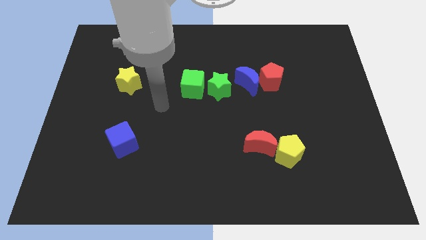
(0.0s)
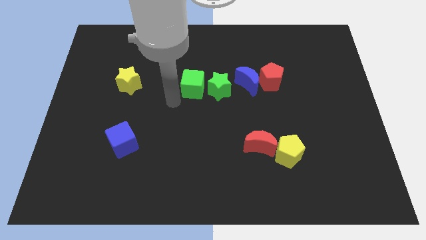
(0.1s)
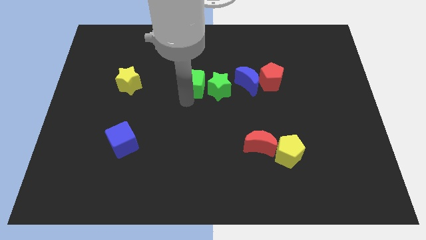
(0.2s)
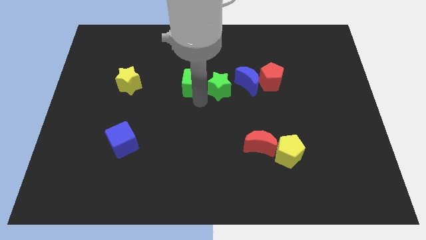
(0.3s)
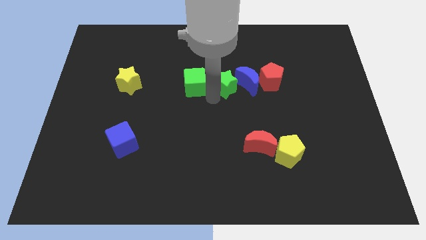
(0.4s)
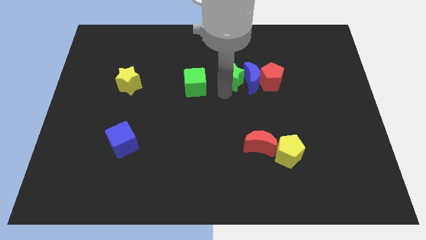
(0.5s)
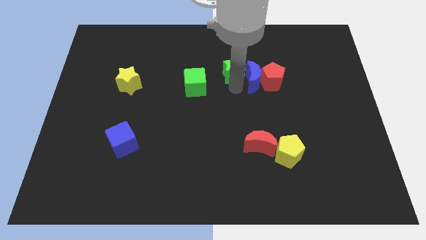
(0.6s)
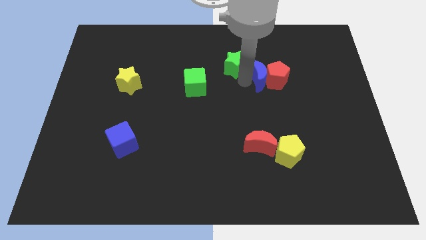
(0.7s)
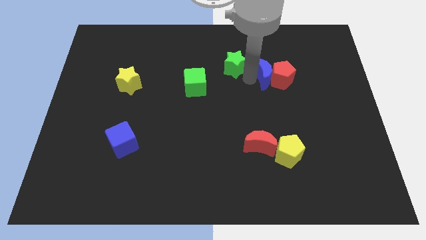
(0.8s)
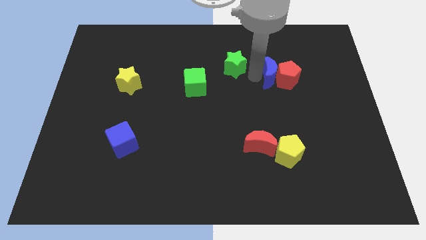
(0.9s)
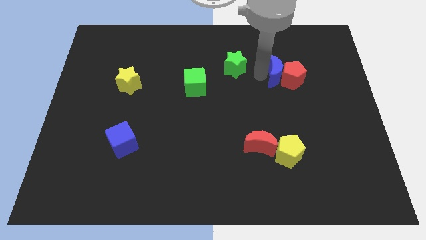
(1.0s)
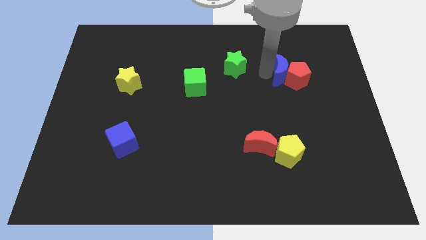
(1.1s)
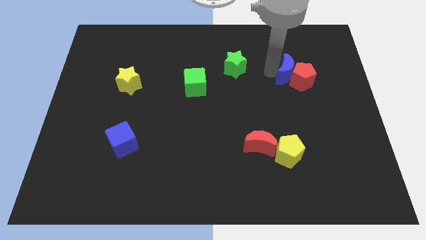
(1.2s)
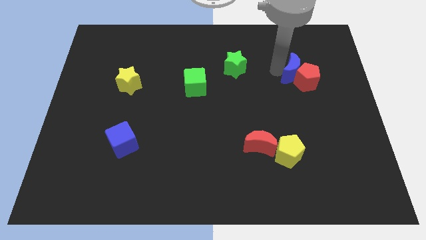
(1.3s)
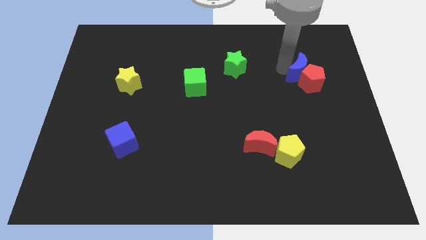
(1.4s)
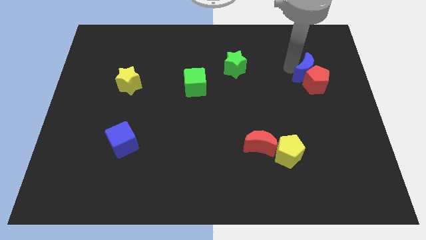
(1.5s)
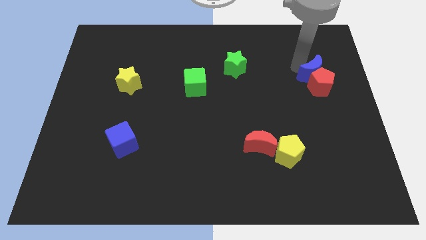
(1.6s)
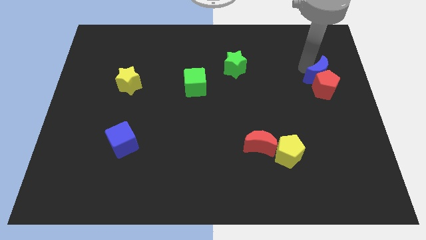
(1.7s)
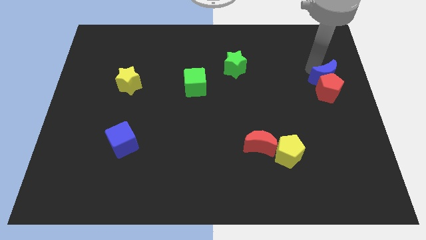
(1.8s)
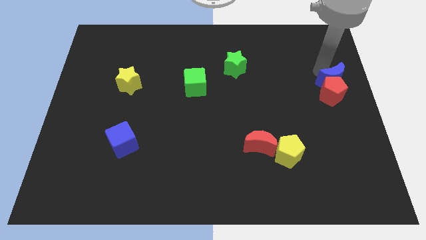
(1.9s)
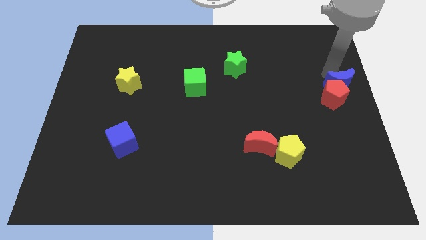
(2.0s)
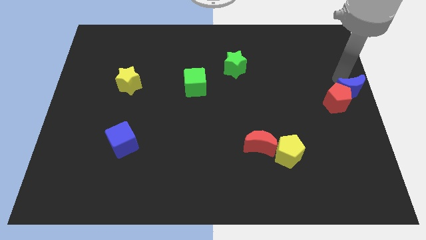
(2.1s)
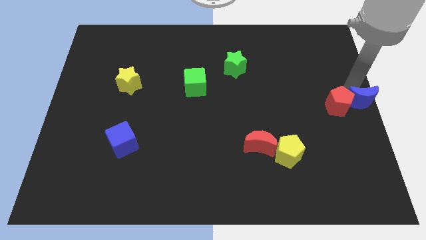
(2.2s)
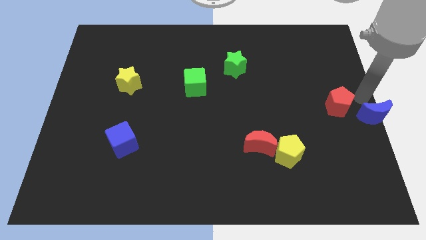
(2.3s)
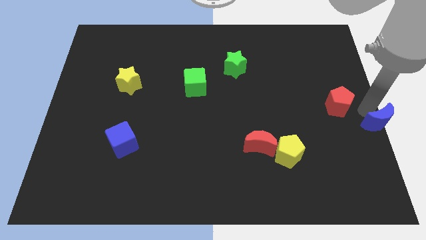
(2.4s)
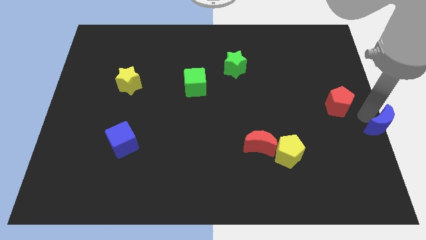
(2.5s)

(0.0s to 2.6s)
separate the red pentagon from the blue moon

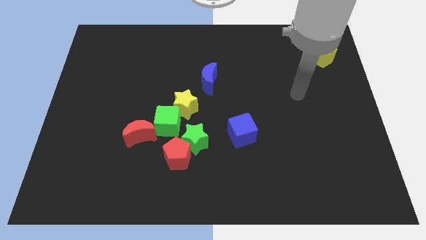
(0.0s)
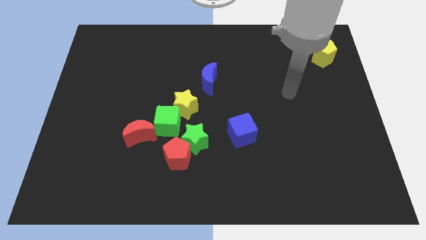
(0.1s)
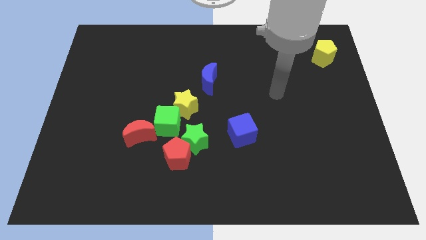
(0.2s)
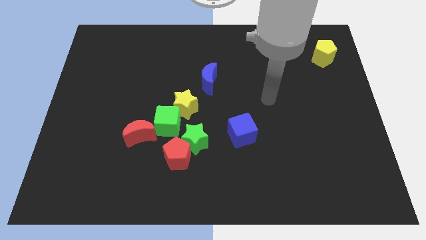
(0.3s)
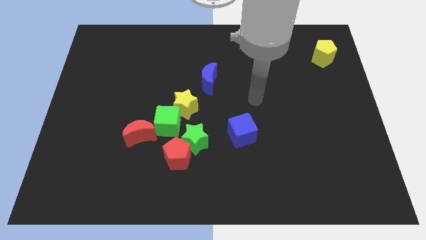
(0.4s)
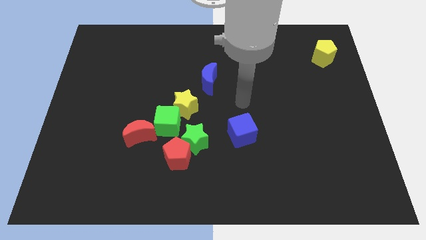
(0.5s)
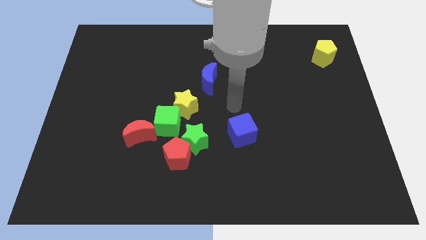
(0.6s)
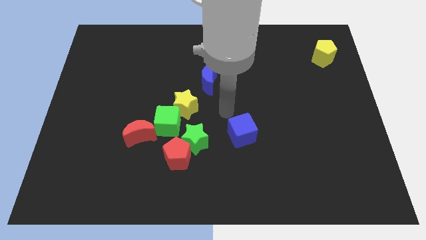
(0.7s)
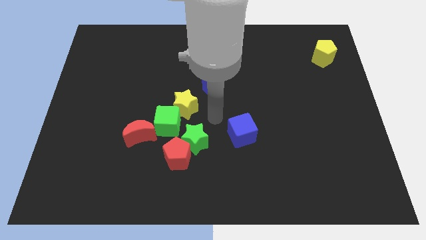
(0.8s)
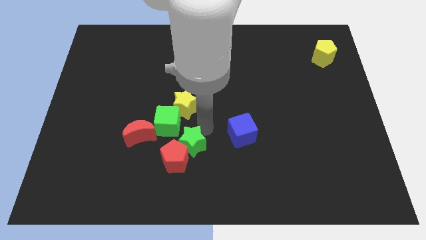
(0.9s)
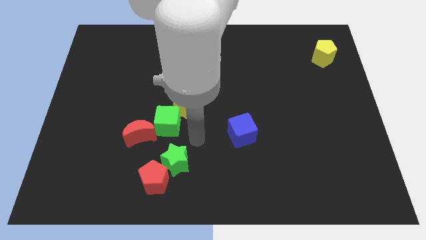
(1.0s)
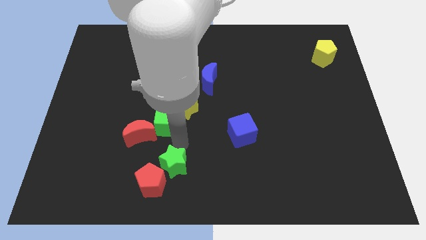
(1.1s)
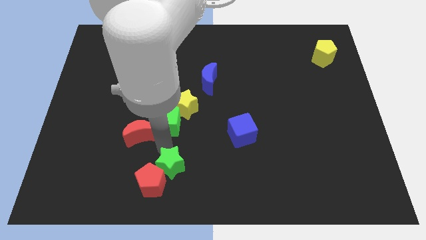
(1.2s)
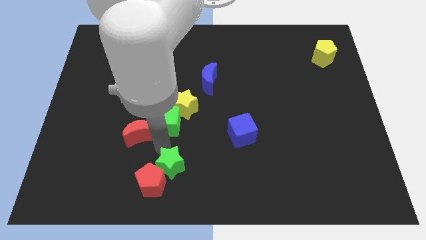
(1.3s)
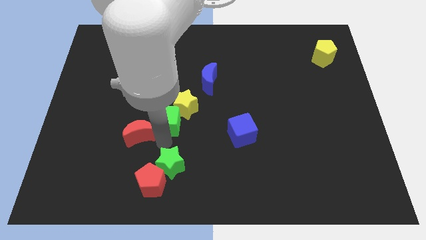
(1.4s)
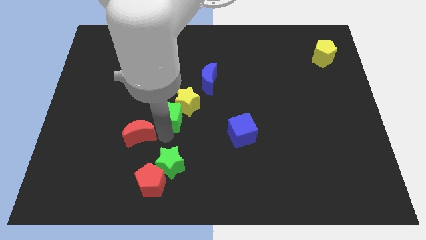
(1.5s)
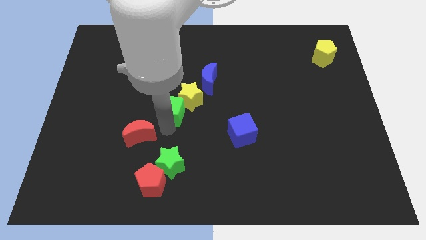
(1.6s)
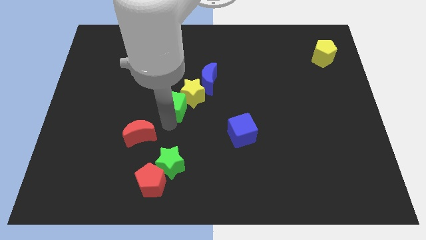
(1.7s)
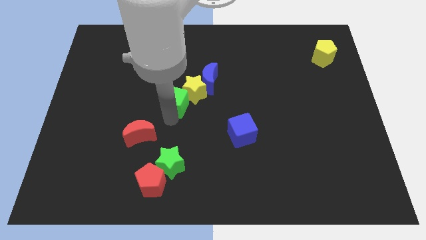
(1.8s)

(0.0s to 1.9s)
move the green cube away from the group of blocks

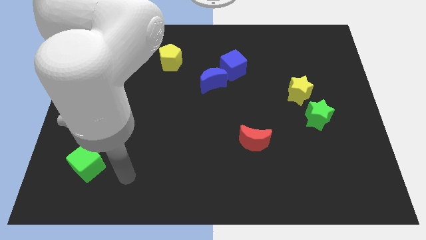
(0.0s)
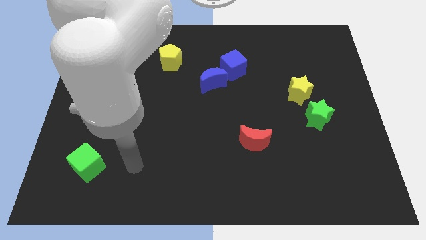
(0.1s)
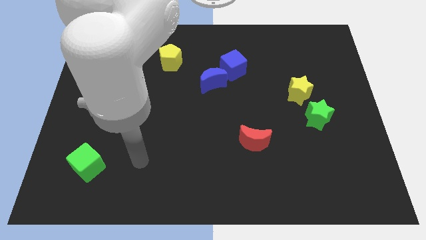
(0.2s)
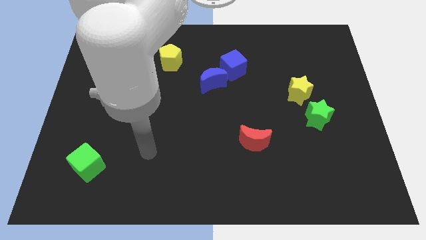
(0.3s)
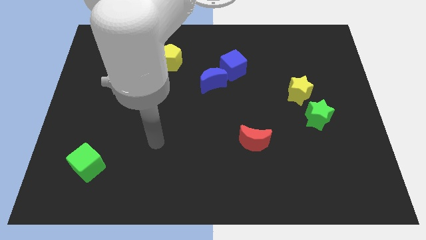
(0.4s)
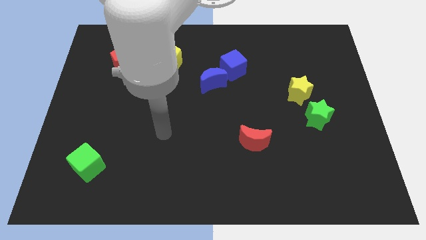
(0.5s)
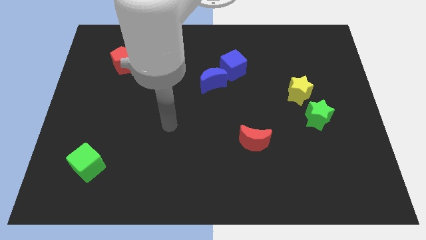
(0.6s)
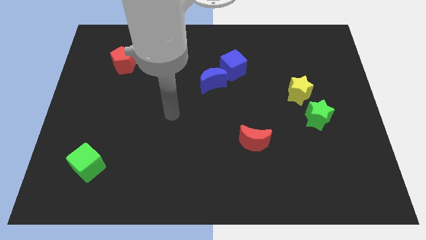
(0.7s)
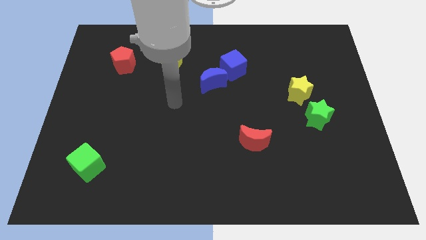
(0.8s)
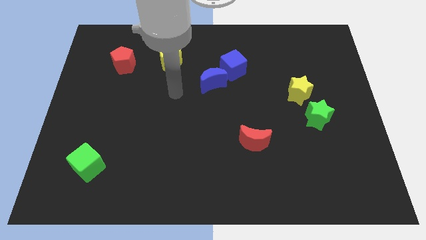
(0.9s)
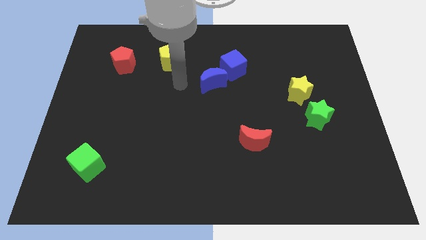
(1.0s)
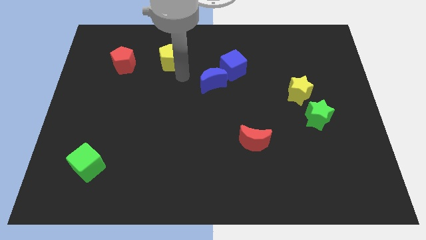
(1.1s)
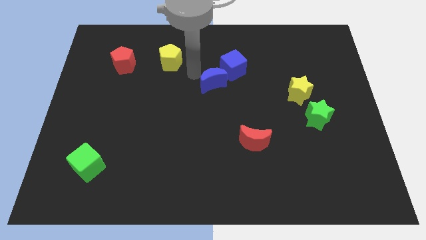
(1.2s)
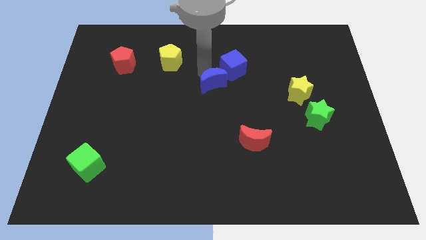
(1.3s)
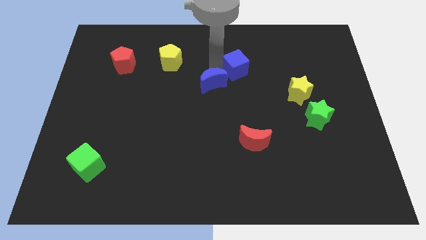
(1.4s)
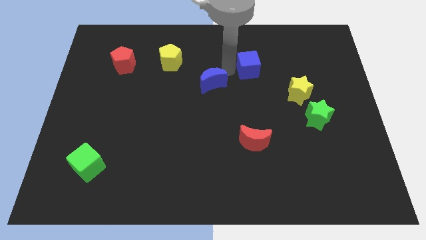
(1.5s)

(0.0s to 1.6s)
move the blue moon away from the blue cube

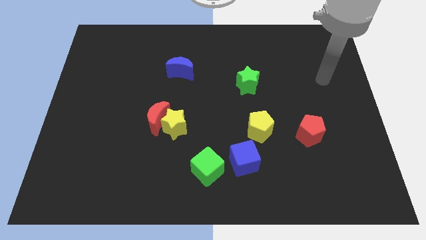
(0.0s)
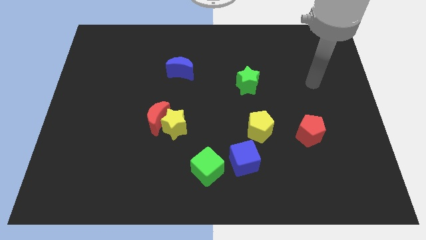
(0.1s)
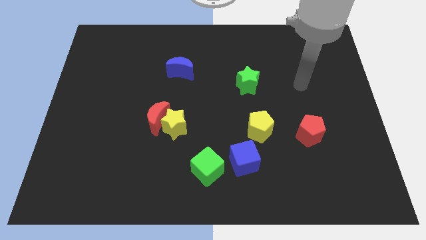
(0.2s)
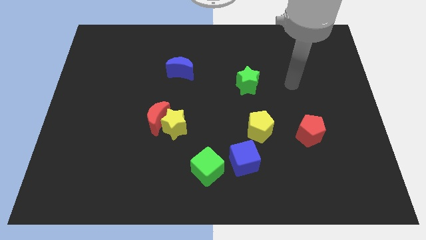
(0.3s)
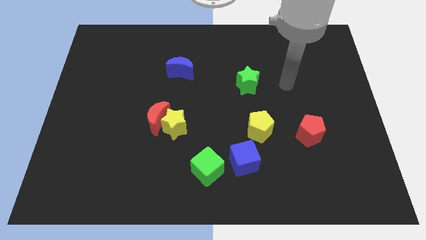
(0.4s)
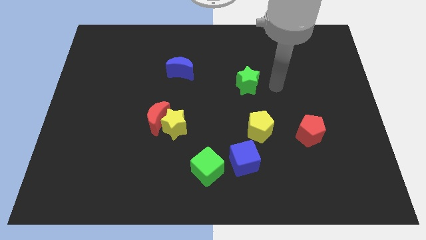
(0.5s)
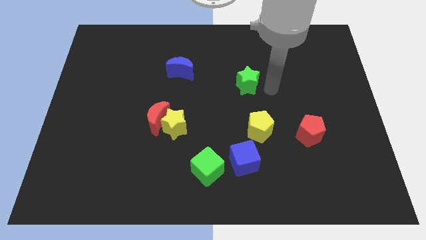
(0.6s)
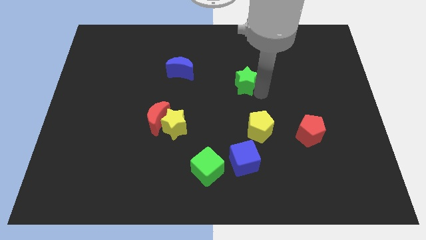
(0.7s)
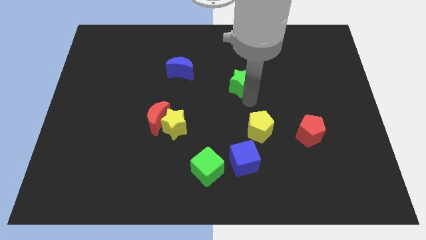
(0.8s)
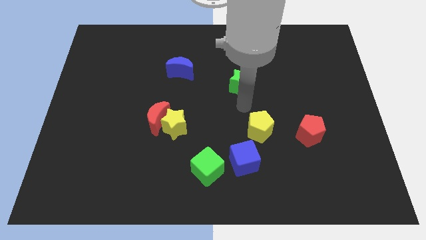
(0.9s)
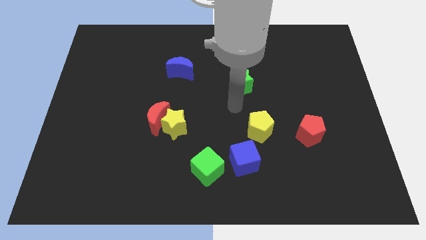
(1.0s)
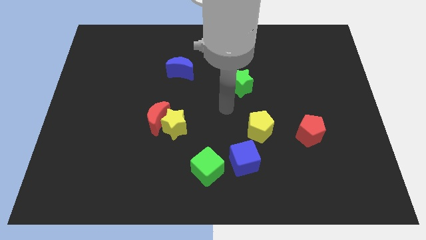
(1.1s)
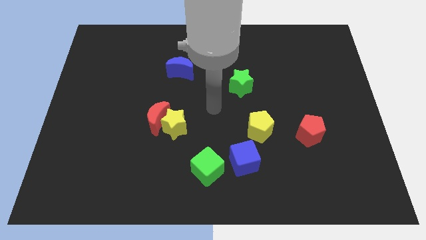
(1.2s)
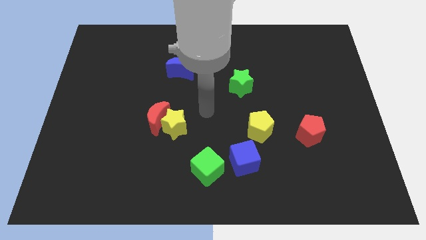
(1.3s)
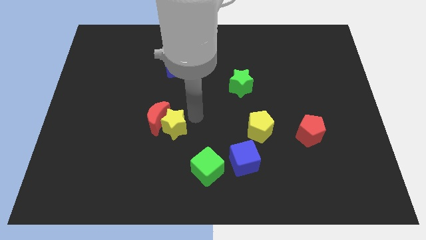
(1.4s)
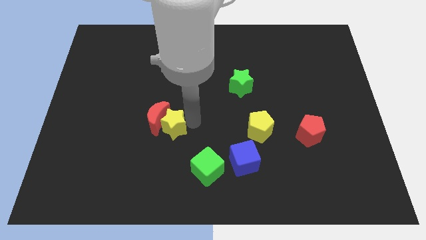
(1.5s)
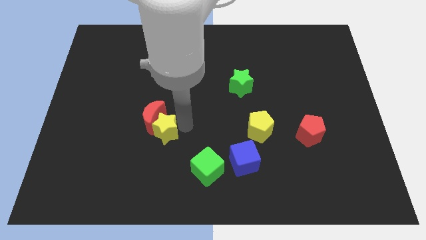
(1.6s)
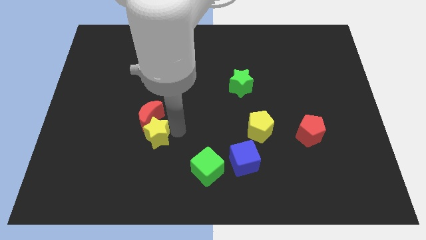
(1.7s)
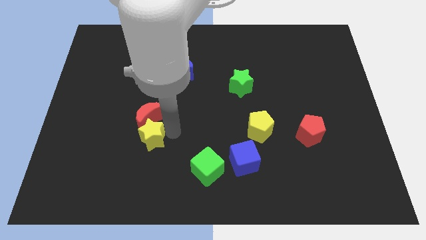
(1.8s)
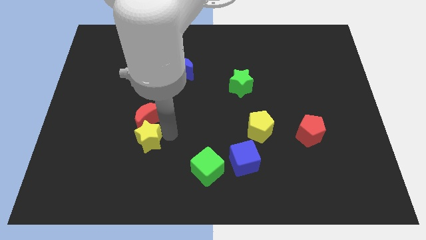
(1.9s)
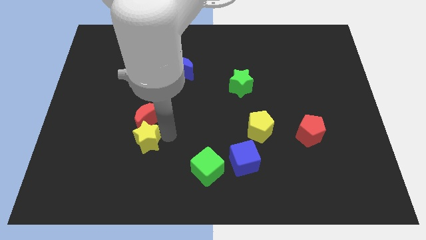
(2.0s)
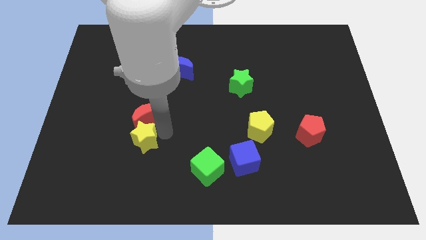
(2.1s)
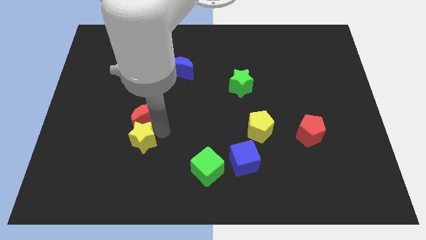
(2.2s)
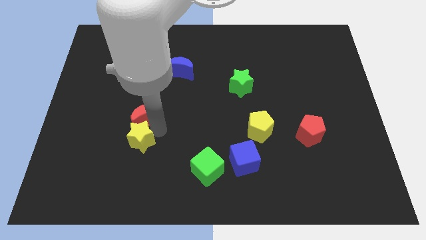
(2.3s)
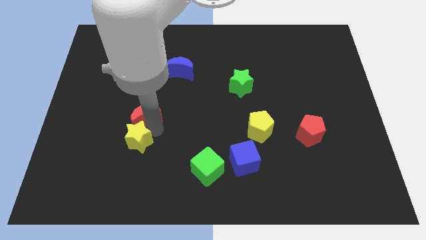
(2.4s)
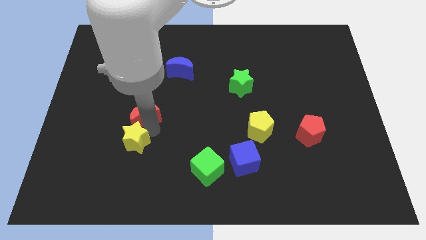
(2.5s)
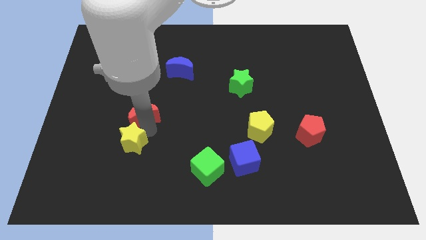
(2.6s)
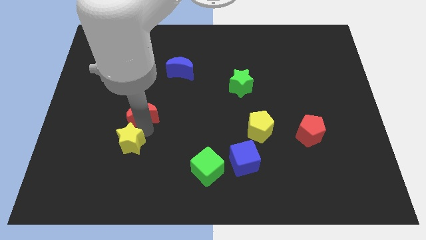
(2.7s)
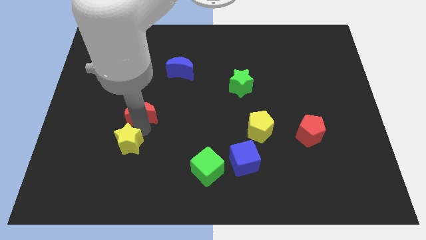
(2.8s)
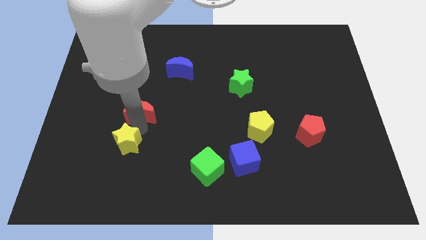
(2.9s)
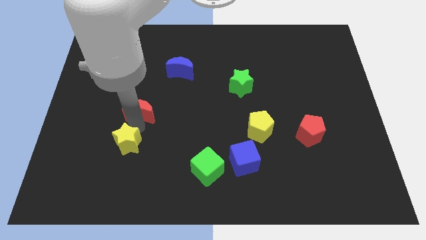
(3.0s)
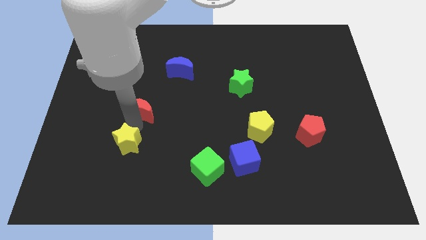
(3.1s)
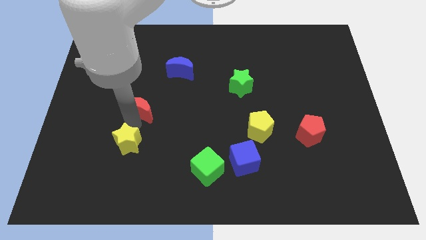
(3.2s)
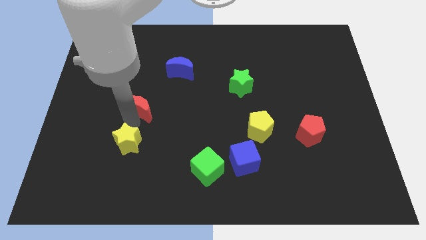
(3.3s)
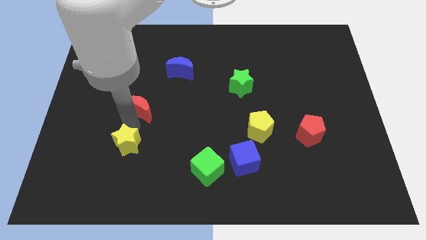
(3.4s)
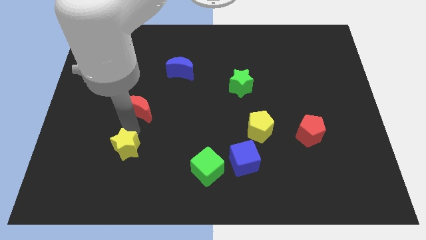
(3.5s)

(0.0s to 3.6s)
move the red moon away from the yellow star
